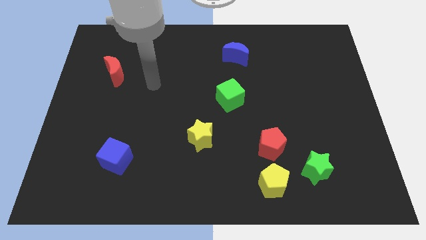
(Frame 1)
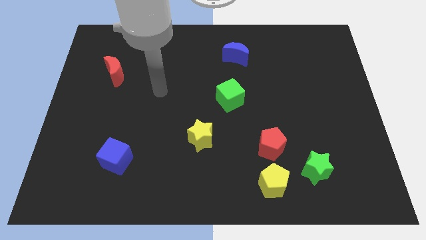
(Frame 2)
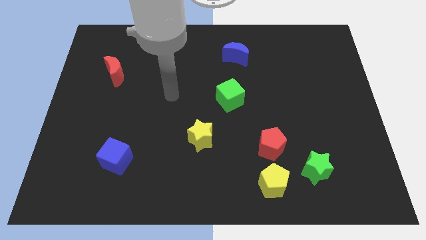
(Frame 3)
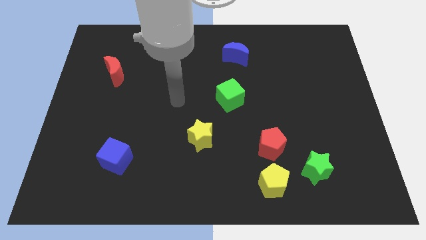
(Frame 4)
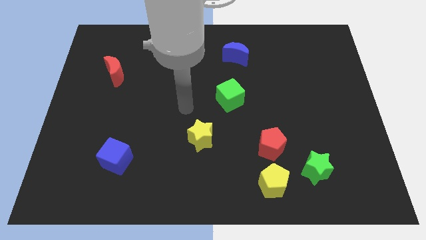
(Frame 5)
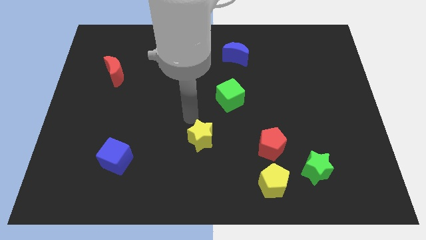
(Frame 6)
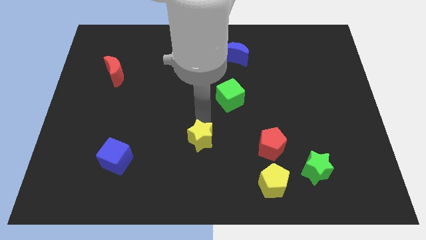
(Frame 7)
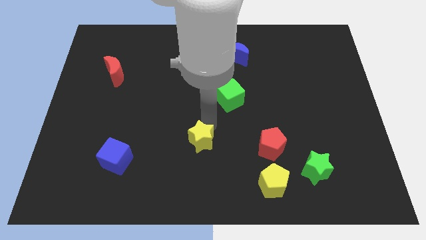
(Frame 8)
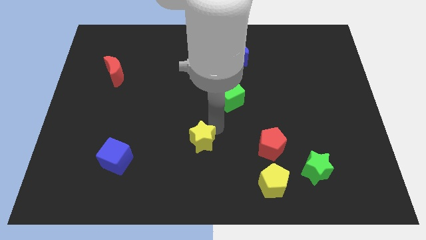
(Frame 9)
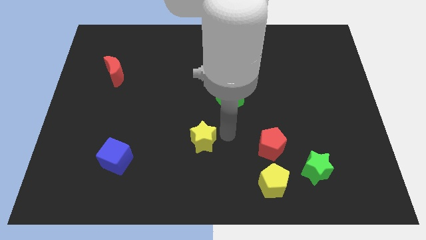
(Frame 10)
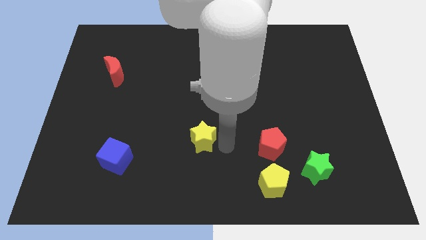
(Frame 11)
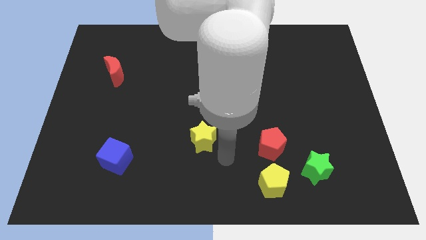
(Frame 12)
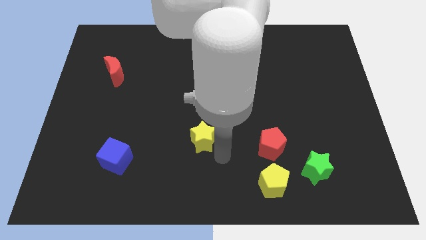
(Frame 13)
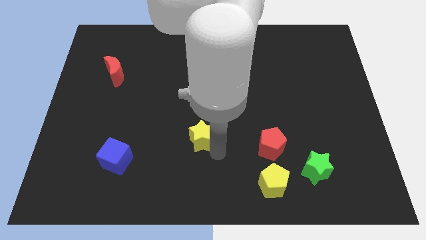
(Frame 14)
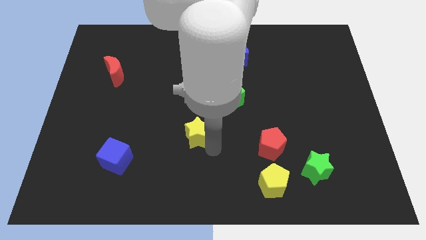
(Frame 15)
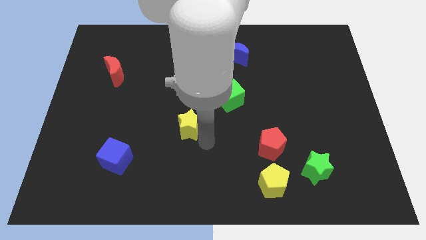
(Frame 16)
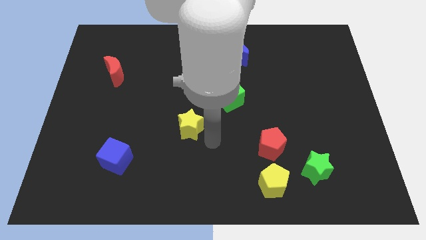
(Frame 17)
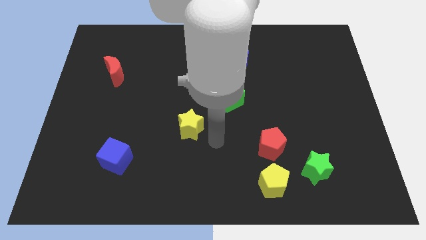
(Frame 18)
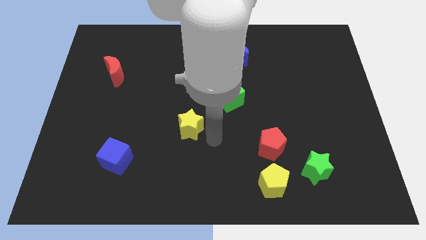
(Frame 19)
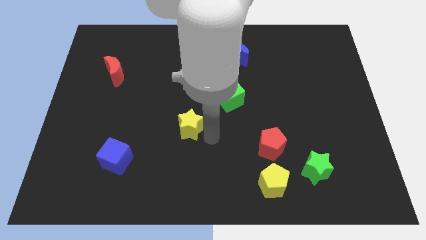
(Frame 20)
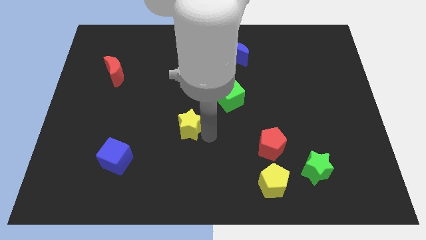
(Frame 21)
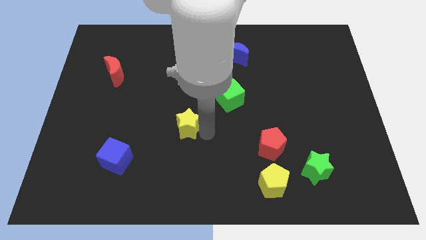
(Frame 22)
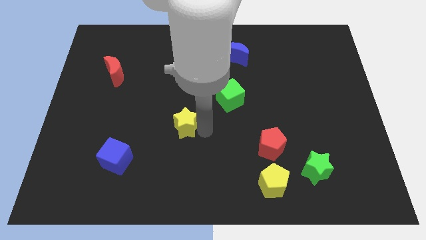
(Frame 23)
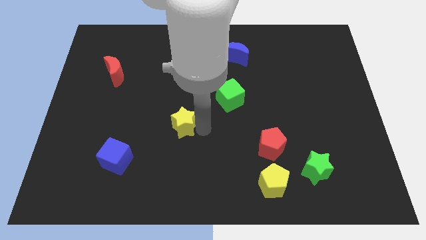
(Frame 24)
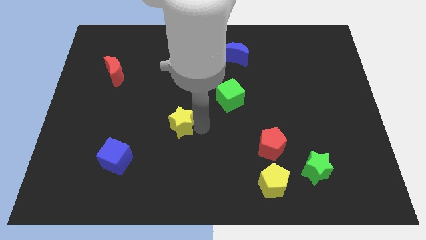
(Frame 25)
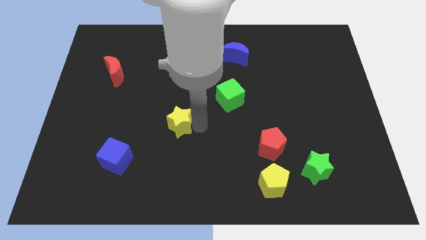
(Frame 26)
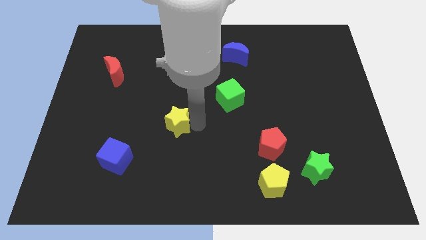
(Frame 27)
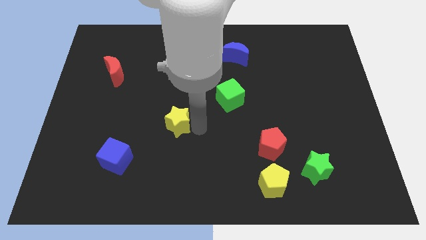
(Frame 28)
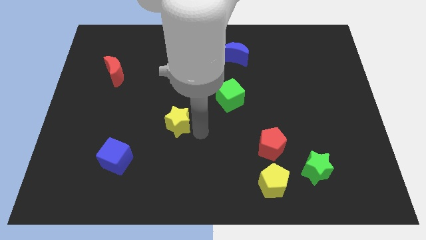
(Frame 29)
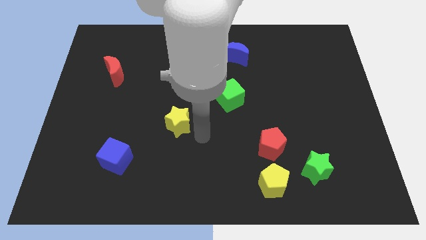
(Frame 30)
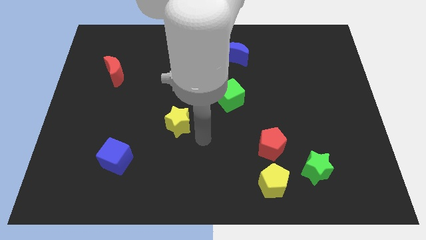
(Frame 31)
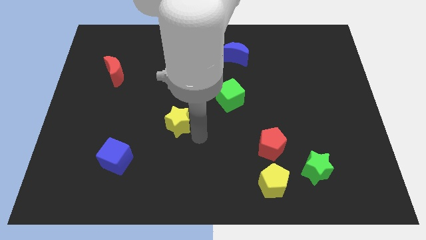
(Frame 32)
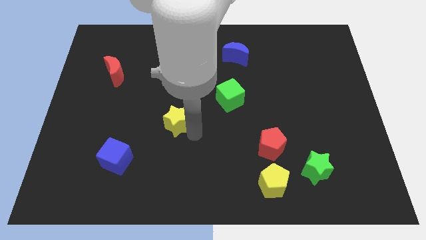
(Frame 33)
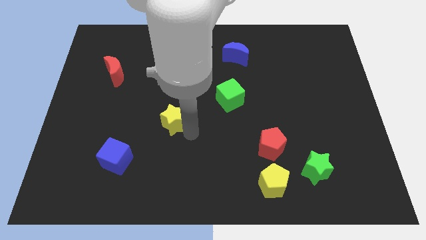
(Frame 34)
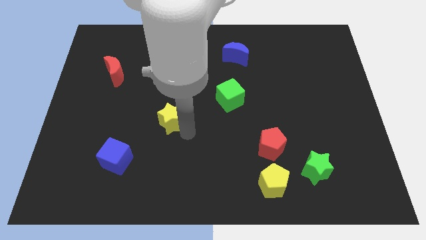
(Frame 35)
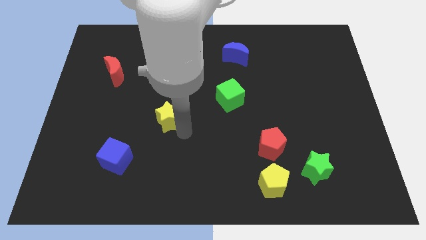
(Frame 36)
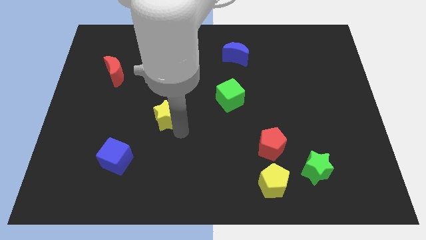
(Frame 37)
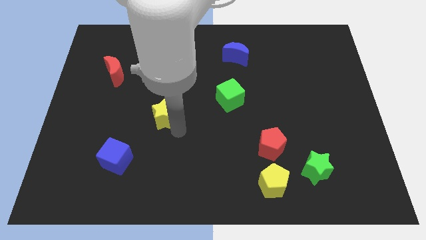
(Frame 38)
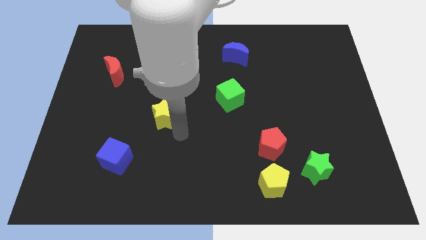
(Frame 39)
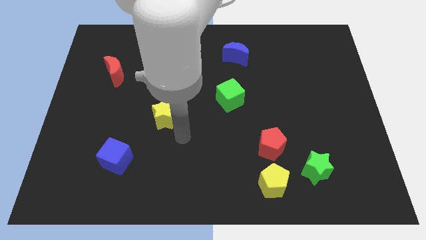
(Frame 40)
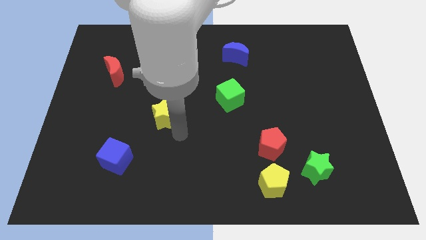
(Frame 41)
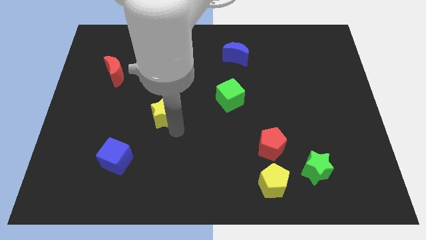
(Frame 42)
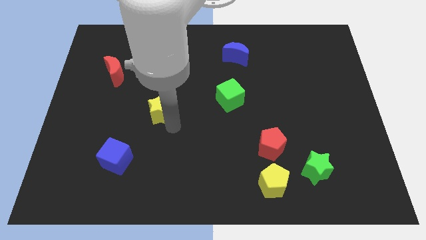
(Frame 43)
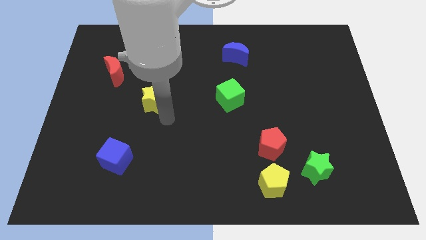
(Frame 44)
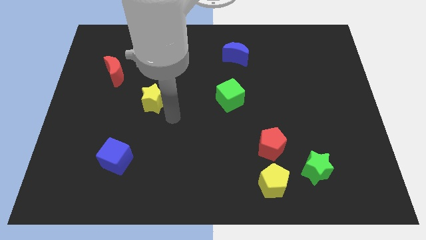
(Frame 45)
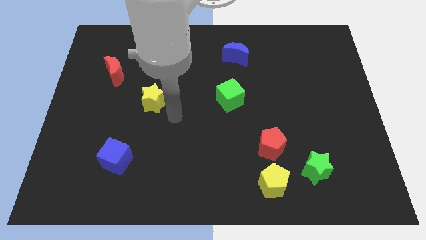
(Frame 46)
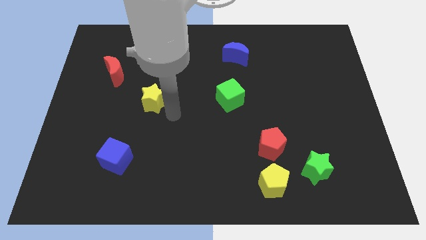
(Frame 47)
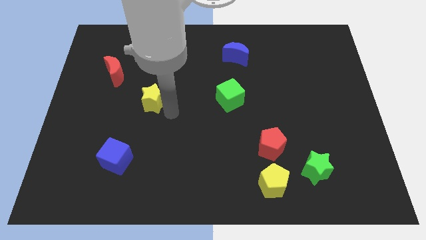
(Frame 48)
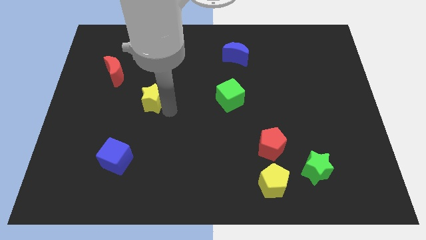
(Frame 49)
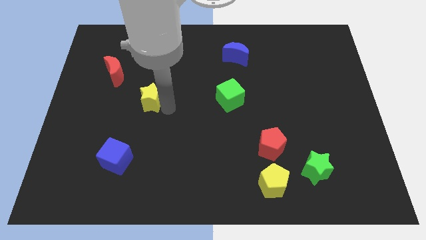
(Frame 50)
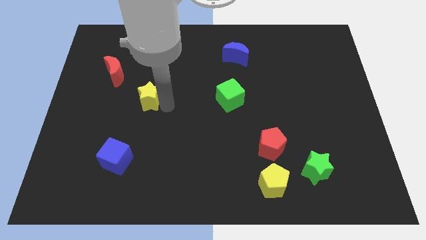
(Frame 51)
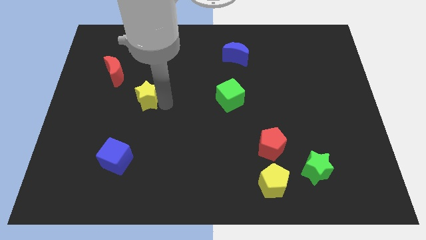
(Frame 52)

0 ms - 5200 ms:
move the yellow star to the bottom right side of the red moon

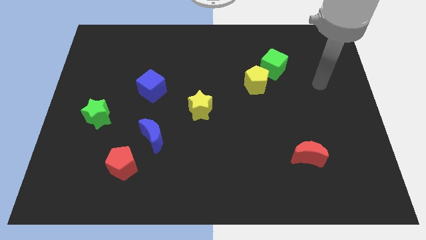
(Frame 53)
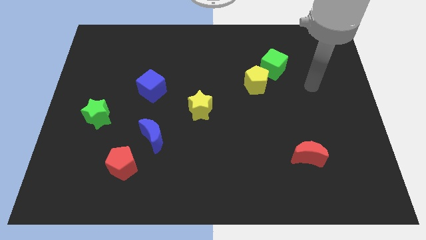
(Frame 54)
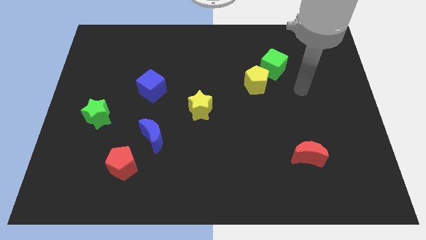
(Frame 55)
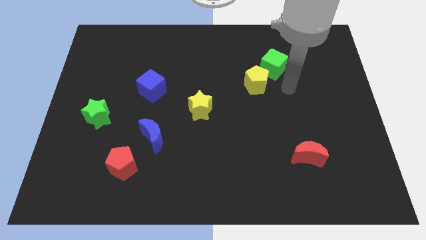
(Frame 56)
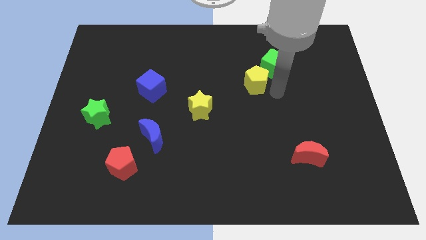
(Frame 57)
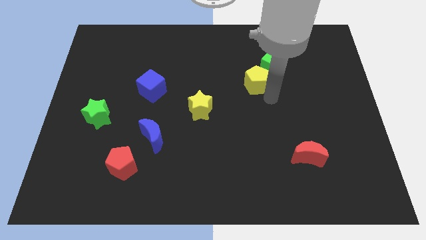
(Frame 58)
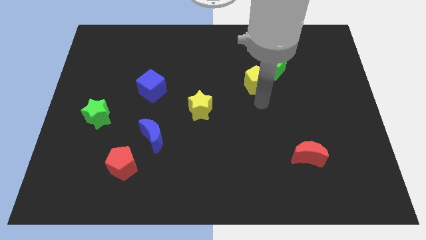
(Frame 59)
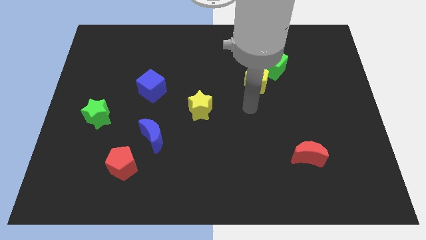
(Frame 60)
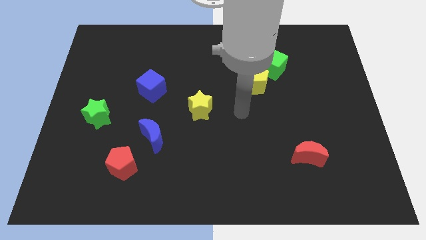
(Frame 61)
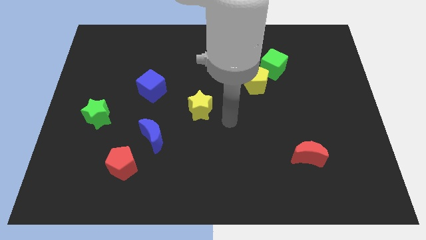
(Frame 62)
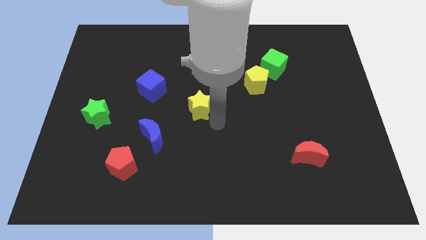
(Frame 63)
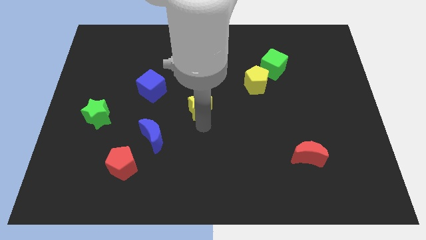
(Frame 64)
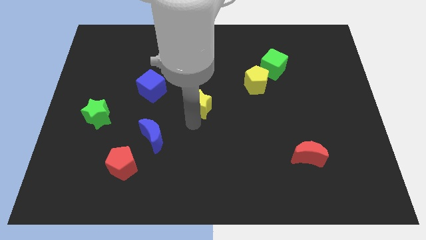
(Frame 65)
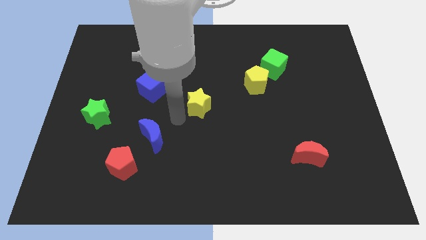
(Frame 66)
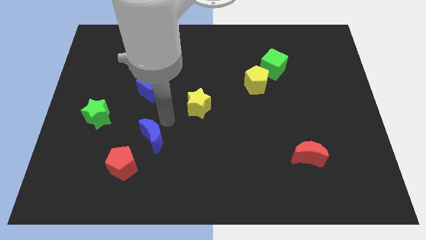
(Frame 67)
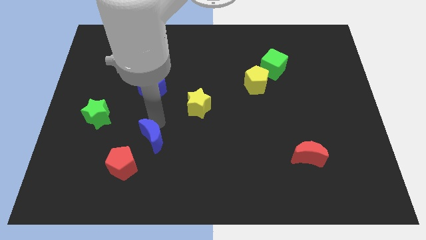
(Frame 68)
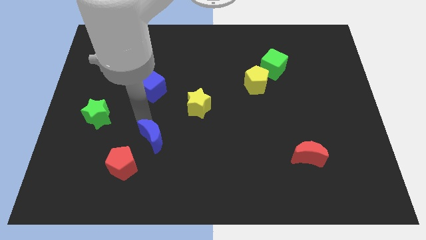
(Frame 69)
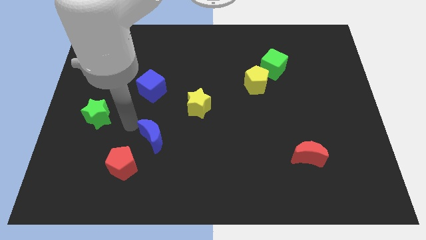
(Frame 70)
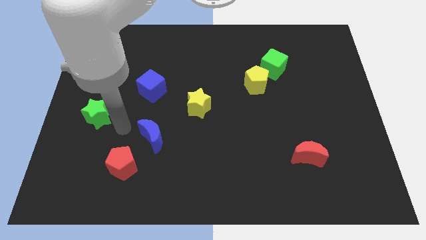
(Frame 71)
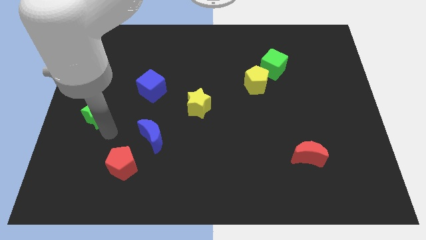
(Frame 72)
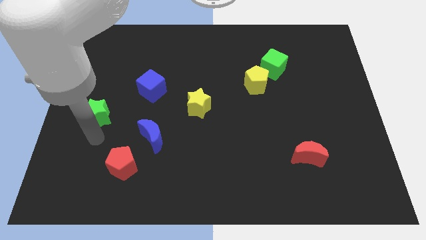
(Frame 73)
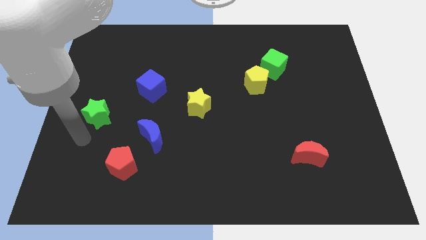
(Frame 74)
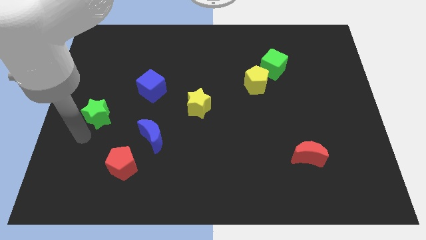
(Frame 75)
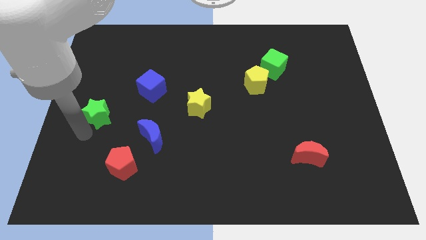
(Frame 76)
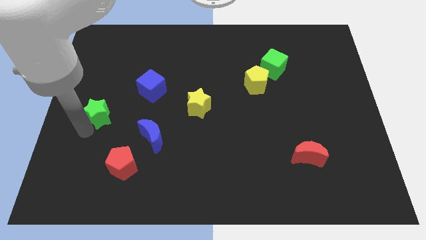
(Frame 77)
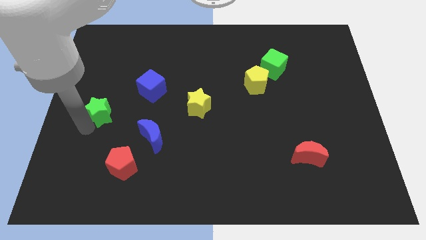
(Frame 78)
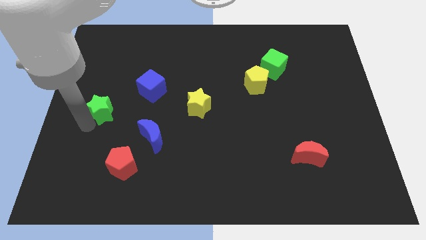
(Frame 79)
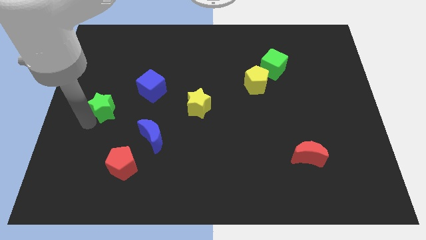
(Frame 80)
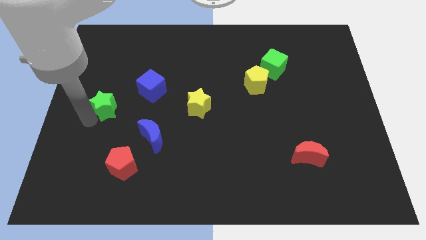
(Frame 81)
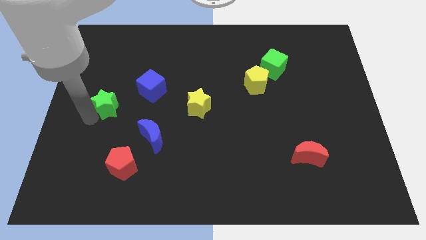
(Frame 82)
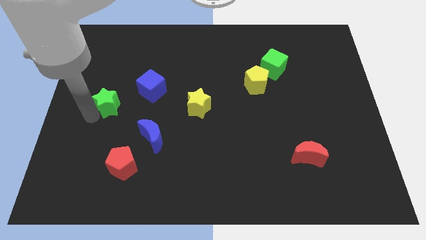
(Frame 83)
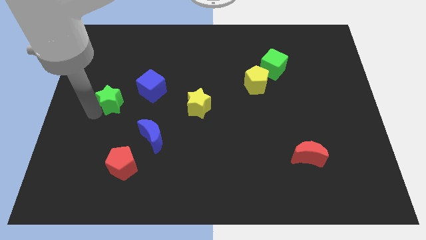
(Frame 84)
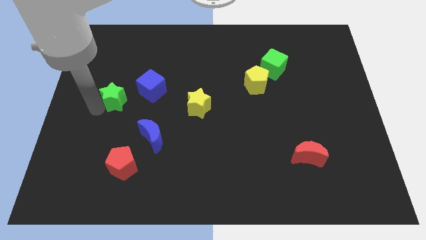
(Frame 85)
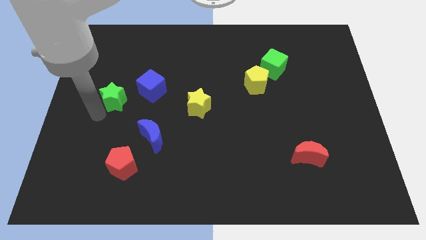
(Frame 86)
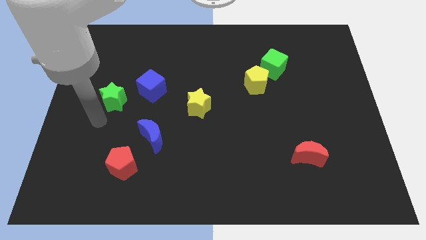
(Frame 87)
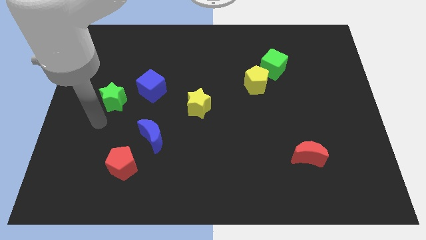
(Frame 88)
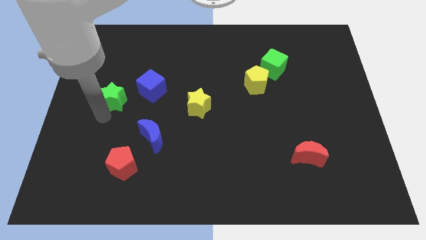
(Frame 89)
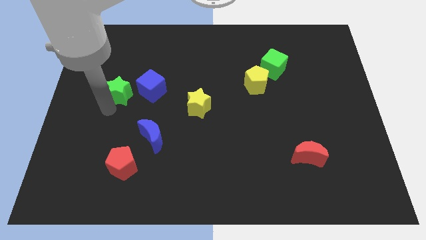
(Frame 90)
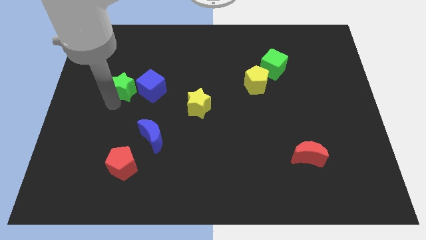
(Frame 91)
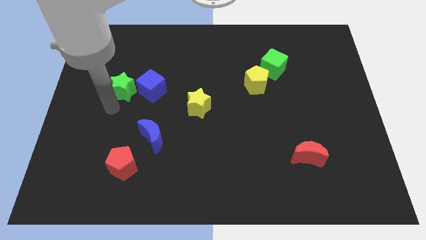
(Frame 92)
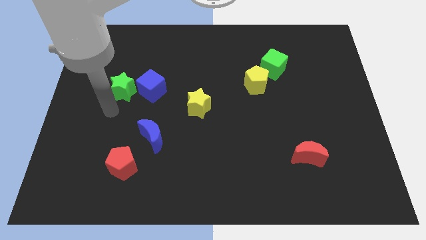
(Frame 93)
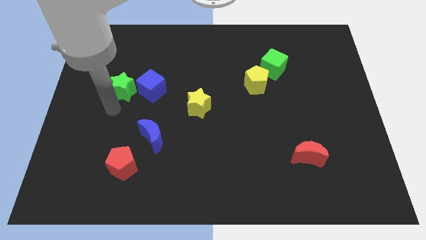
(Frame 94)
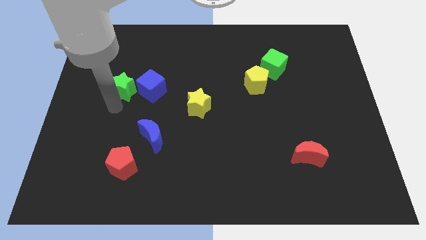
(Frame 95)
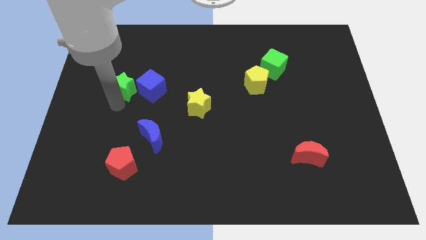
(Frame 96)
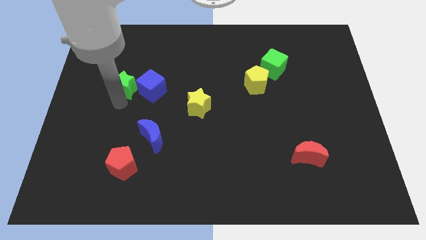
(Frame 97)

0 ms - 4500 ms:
move the green star to the top left of the blue cube
